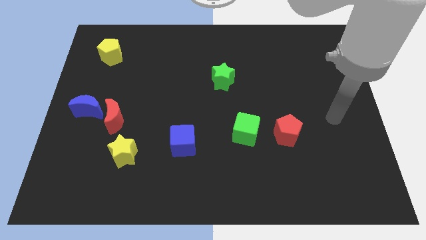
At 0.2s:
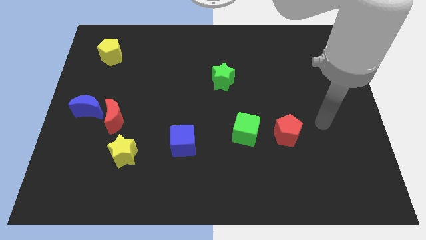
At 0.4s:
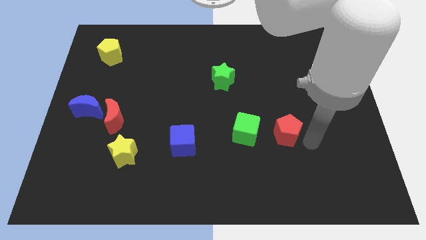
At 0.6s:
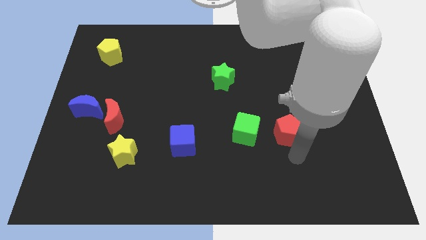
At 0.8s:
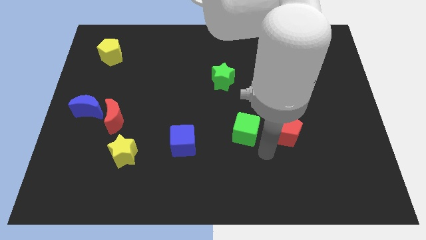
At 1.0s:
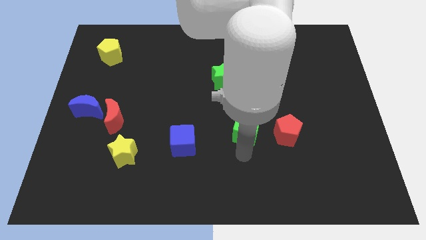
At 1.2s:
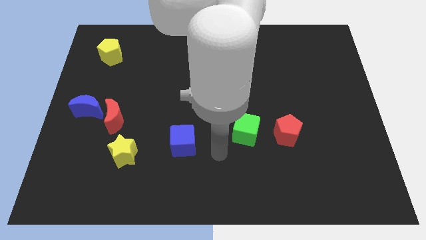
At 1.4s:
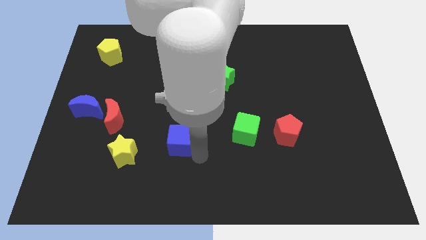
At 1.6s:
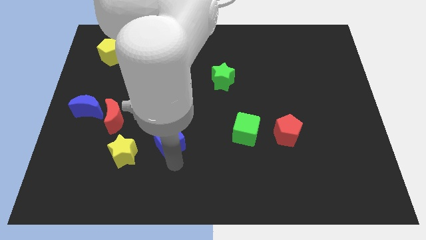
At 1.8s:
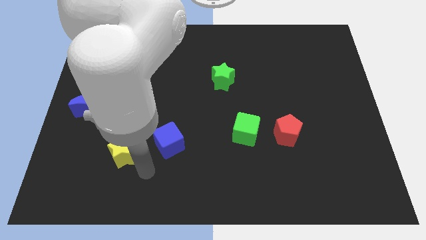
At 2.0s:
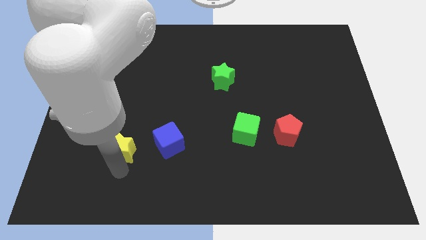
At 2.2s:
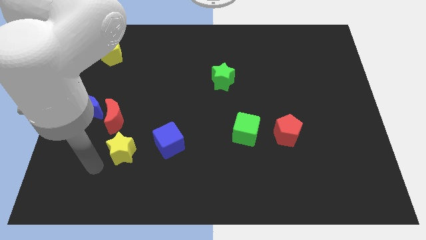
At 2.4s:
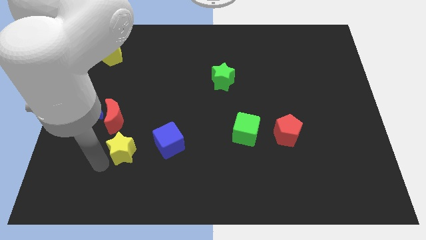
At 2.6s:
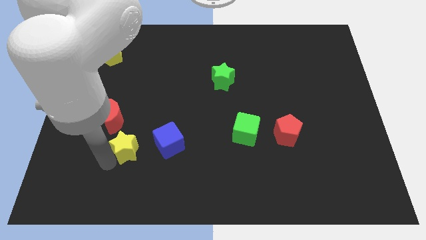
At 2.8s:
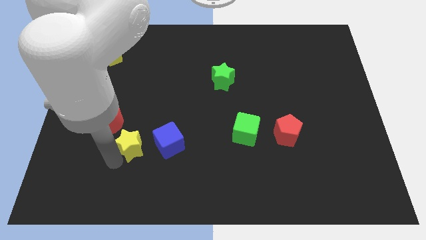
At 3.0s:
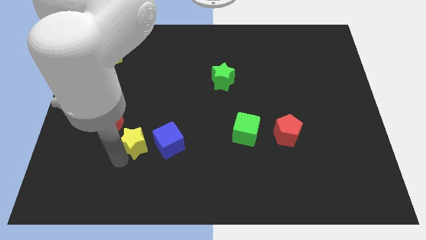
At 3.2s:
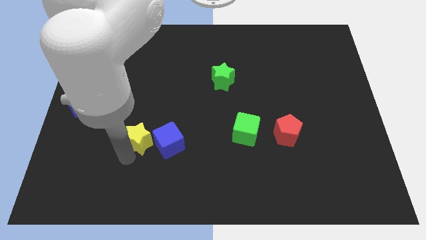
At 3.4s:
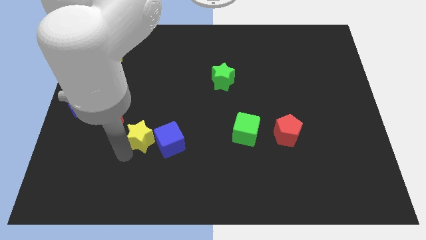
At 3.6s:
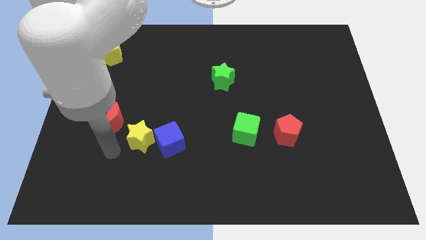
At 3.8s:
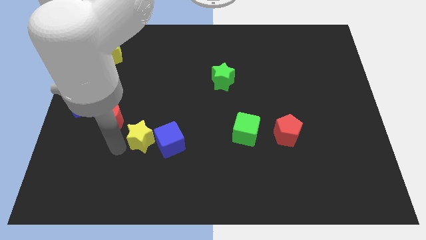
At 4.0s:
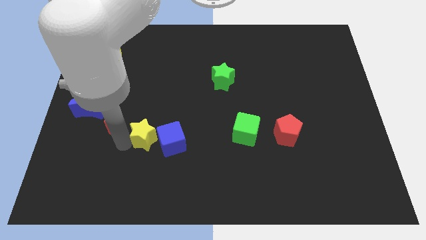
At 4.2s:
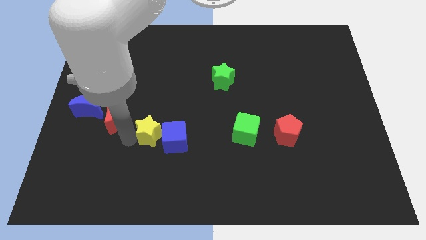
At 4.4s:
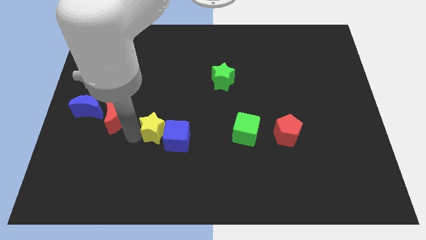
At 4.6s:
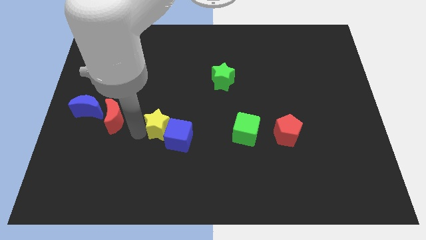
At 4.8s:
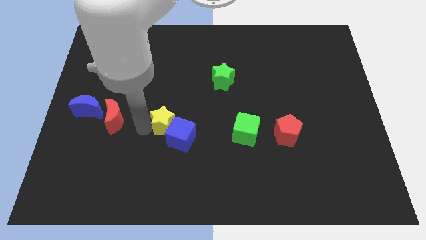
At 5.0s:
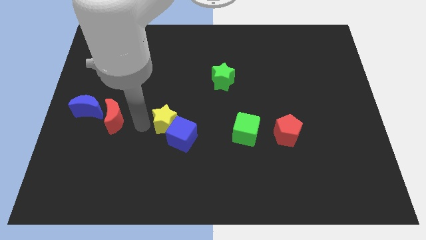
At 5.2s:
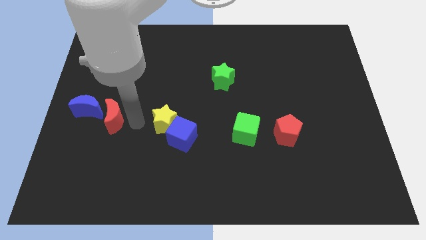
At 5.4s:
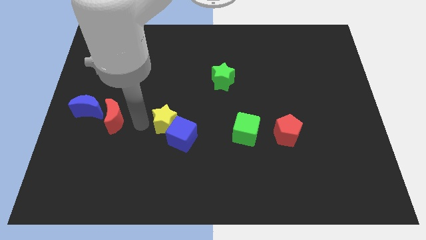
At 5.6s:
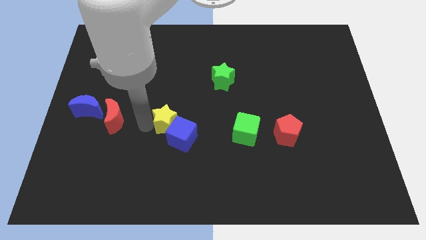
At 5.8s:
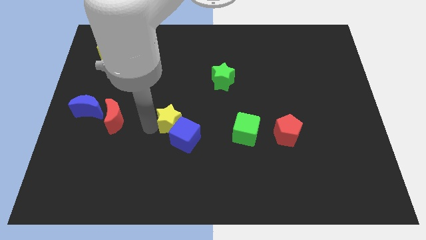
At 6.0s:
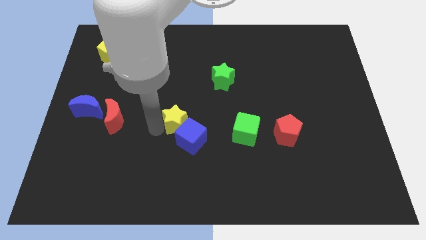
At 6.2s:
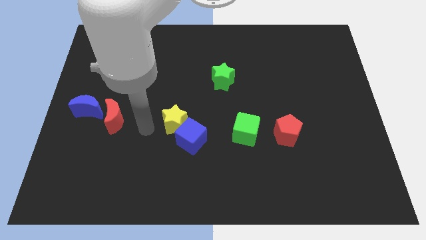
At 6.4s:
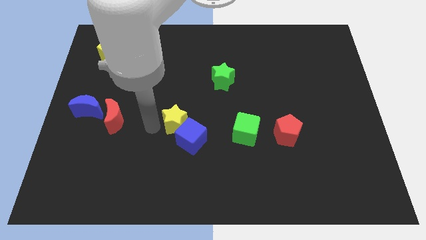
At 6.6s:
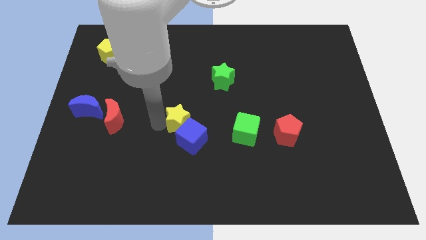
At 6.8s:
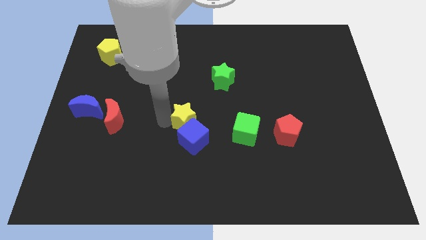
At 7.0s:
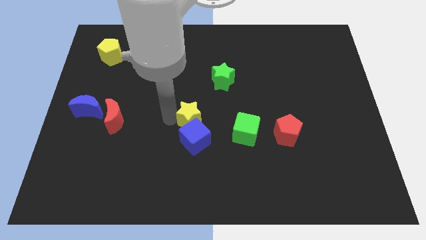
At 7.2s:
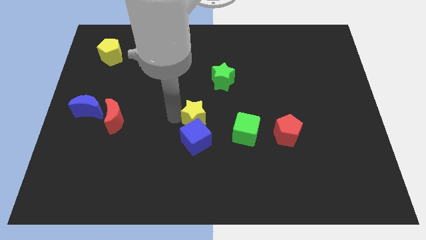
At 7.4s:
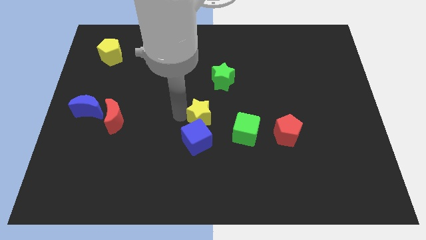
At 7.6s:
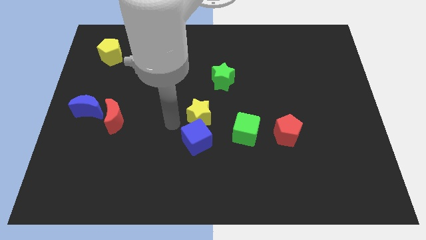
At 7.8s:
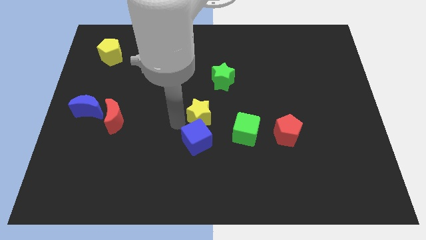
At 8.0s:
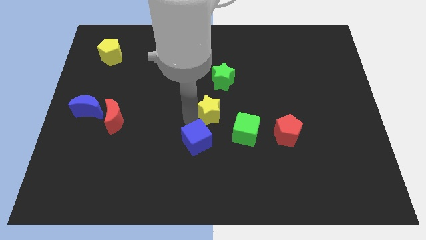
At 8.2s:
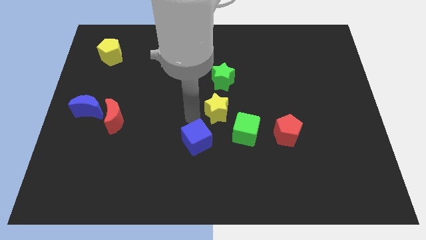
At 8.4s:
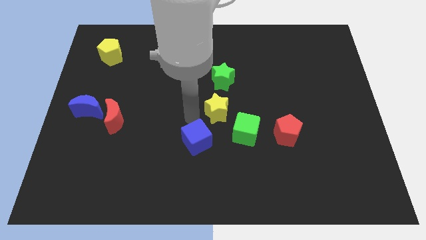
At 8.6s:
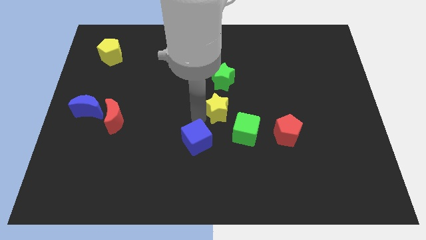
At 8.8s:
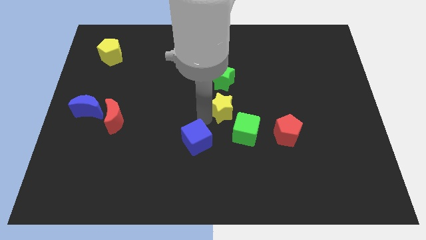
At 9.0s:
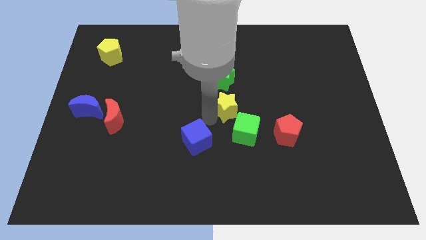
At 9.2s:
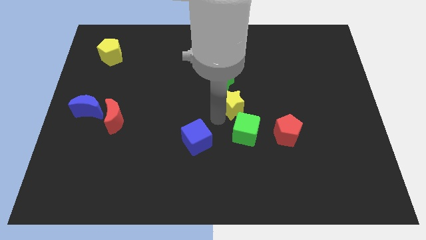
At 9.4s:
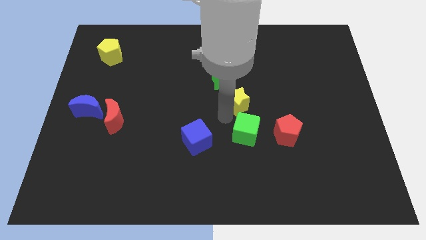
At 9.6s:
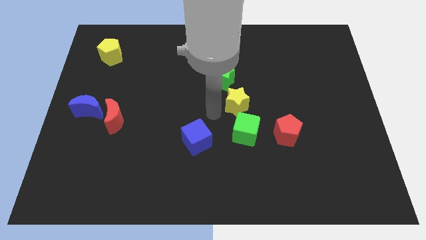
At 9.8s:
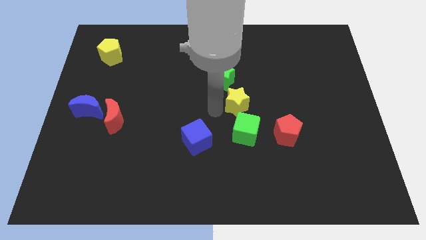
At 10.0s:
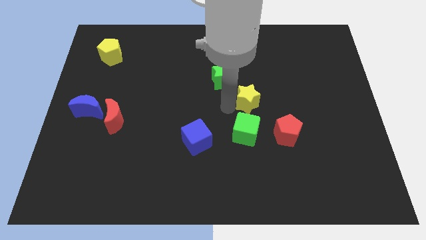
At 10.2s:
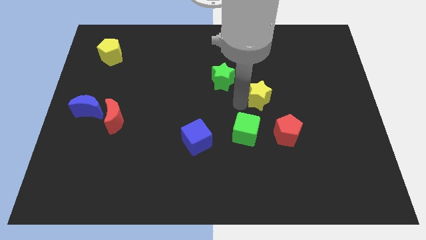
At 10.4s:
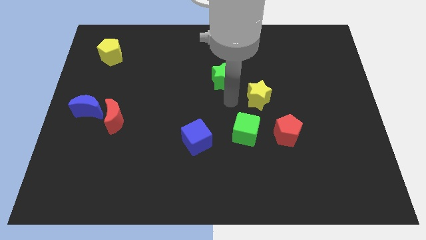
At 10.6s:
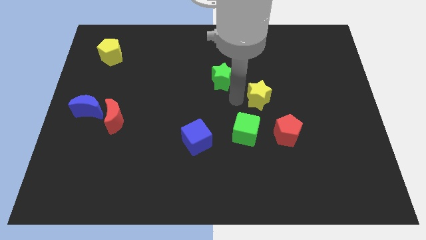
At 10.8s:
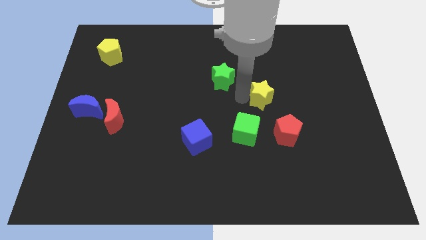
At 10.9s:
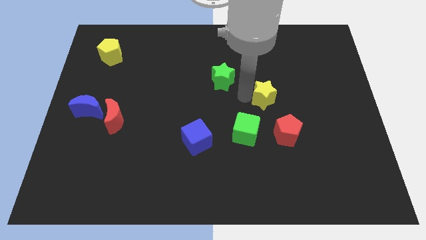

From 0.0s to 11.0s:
put the yellow star to the top side of the red pentagon

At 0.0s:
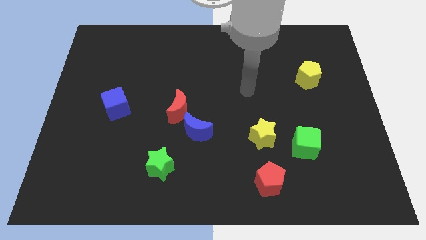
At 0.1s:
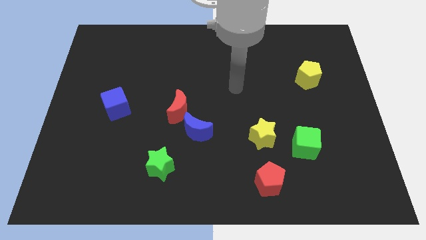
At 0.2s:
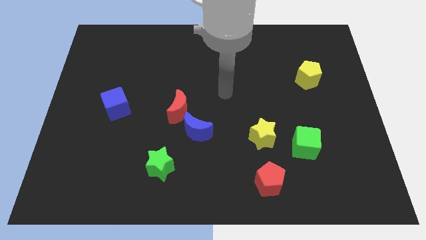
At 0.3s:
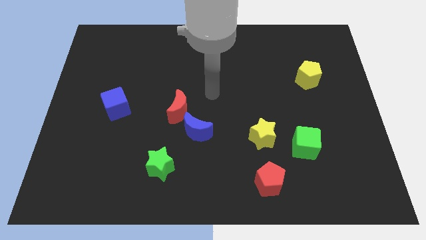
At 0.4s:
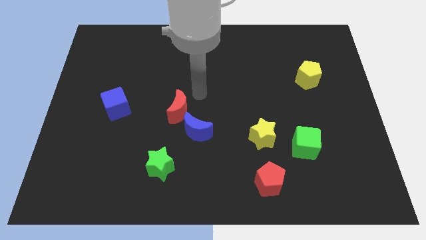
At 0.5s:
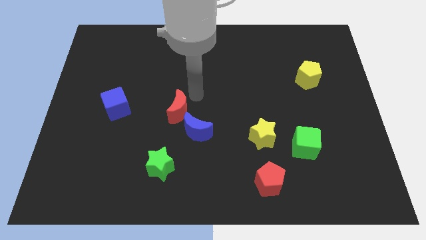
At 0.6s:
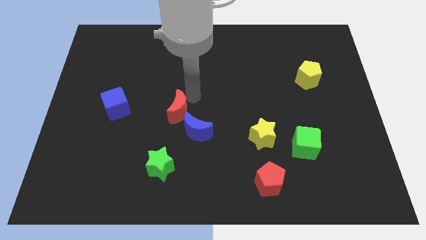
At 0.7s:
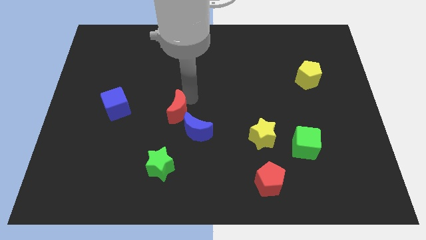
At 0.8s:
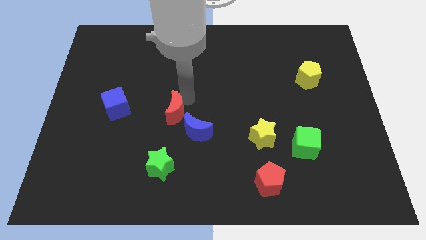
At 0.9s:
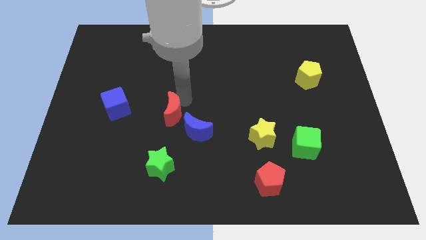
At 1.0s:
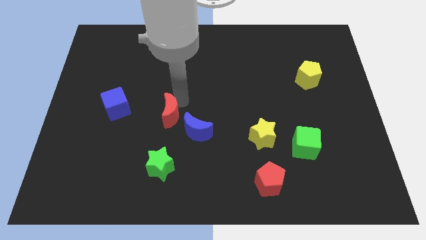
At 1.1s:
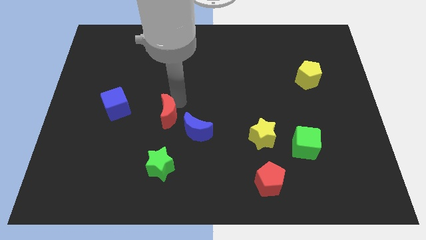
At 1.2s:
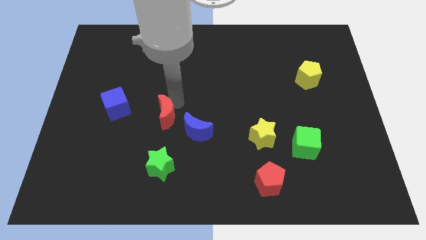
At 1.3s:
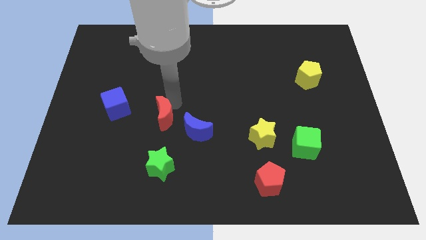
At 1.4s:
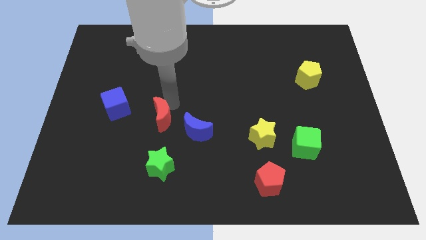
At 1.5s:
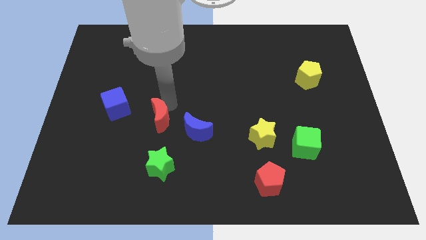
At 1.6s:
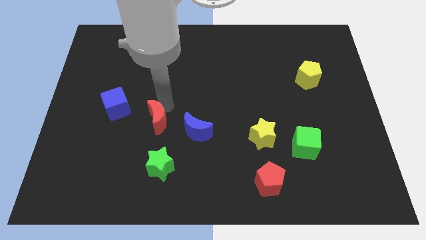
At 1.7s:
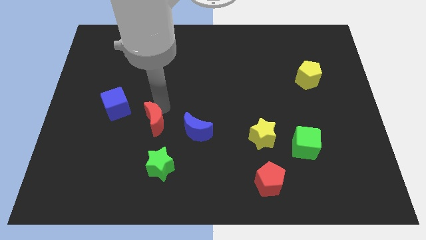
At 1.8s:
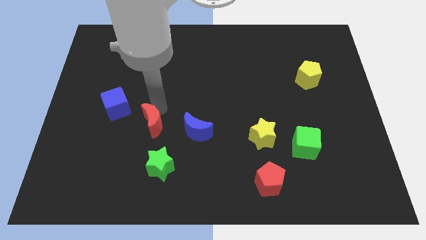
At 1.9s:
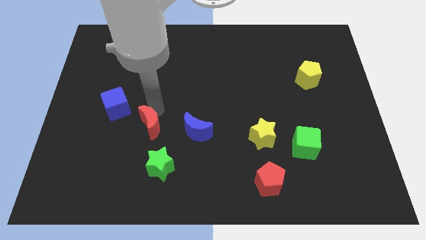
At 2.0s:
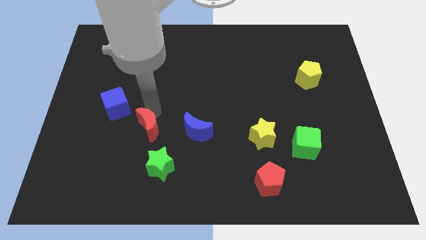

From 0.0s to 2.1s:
move the red moon to the top left of the green star
